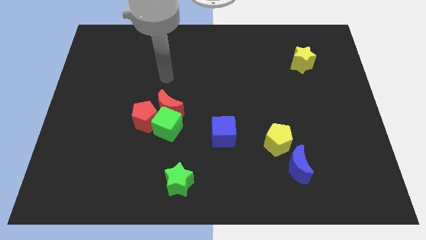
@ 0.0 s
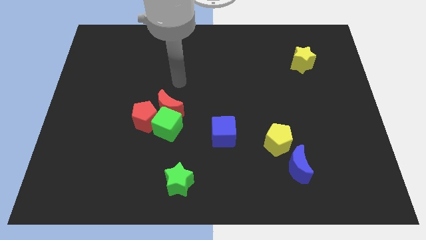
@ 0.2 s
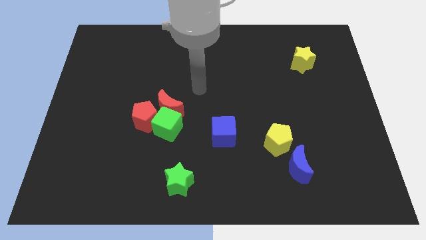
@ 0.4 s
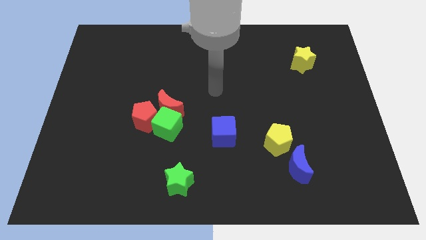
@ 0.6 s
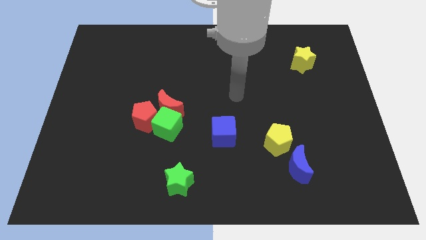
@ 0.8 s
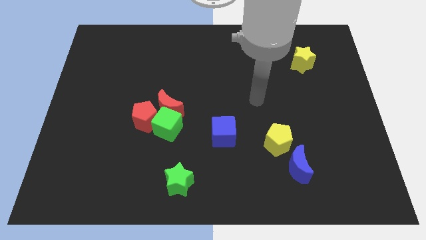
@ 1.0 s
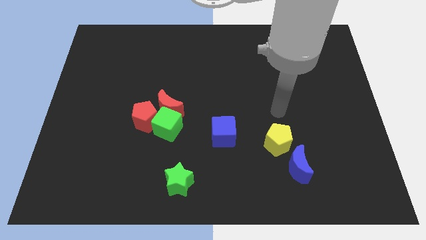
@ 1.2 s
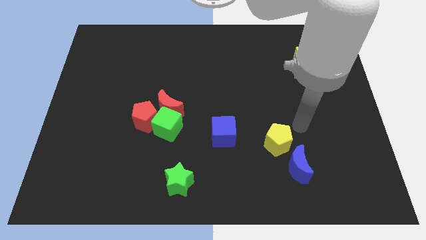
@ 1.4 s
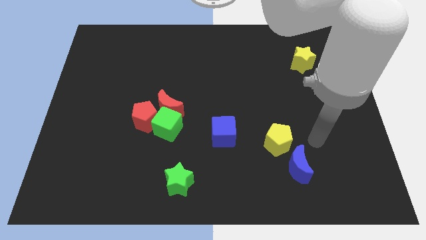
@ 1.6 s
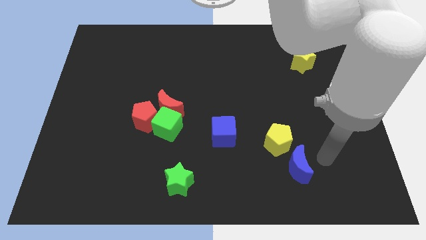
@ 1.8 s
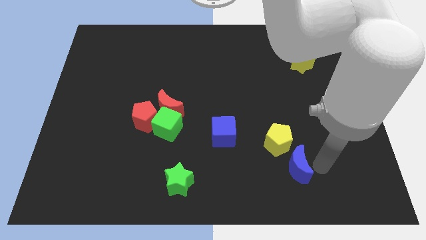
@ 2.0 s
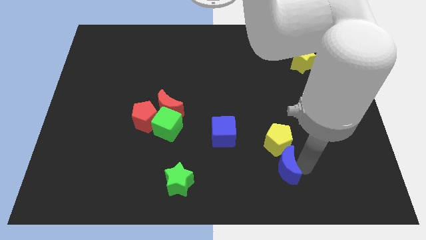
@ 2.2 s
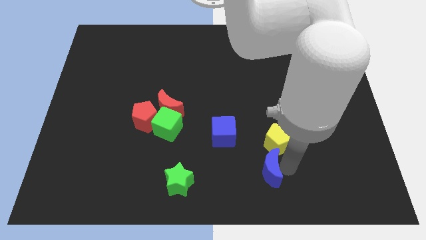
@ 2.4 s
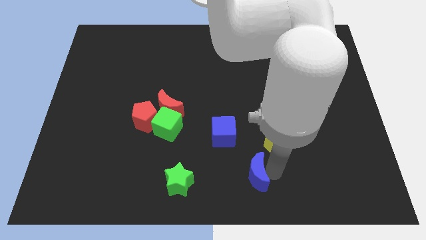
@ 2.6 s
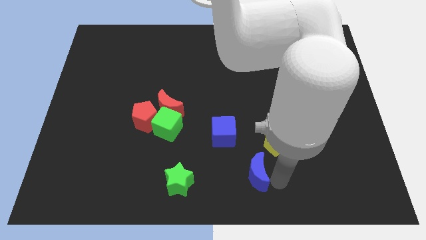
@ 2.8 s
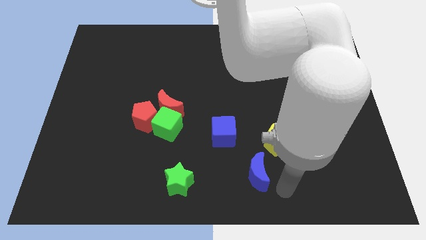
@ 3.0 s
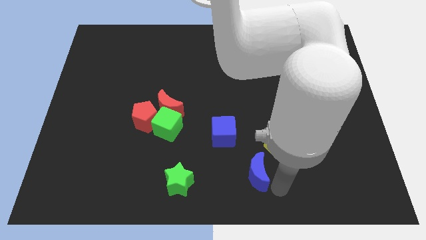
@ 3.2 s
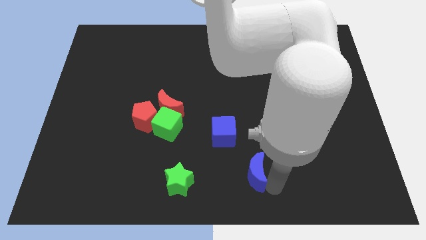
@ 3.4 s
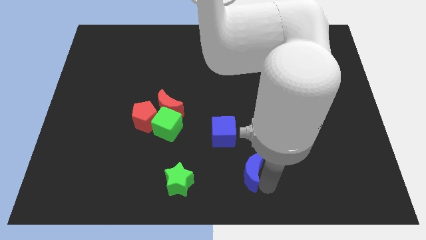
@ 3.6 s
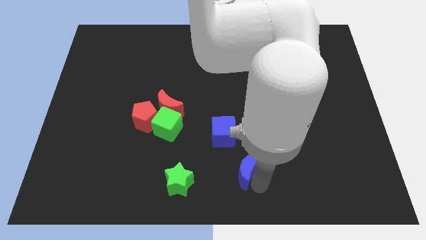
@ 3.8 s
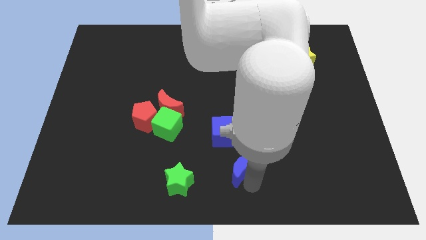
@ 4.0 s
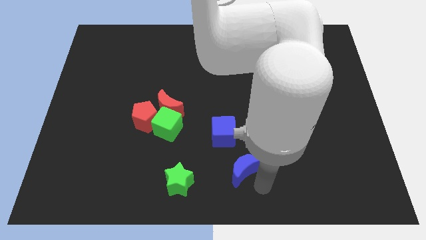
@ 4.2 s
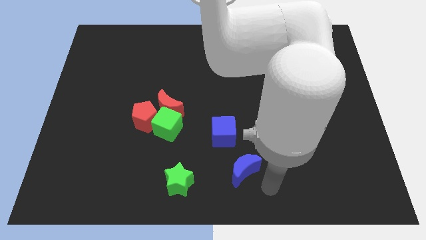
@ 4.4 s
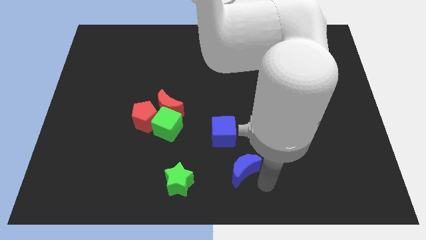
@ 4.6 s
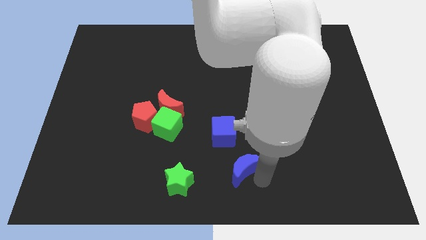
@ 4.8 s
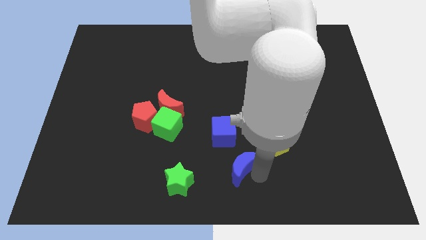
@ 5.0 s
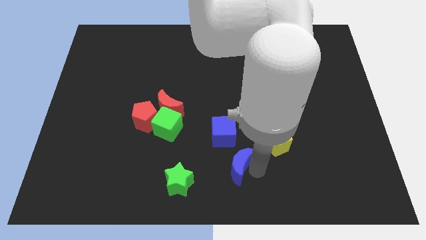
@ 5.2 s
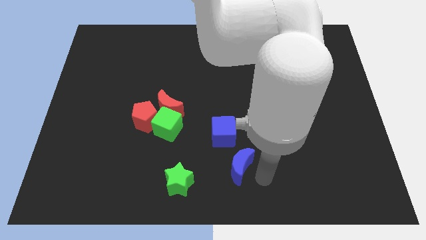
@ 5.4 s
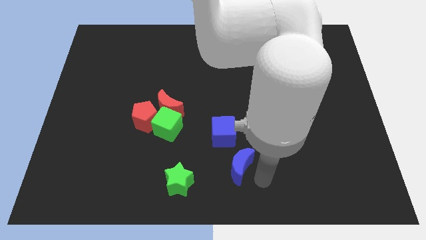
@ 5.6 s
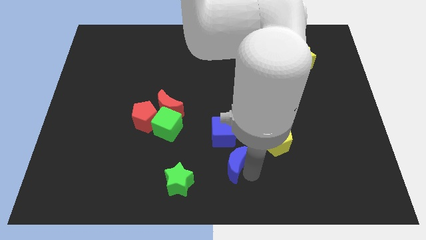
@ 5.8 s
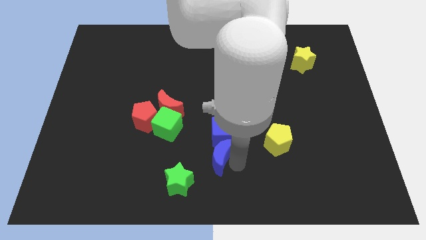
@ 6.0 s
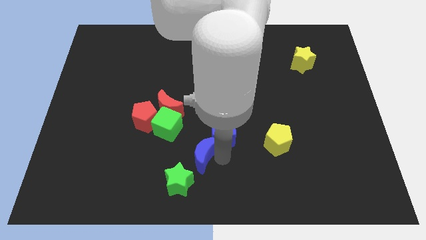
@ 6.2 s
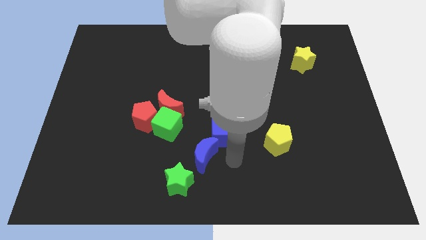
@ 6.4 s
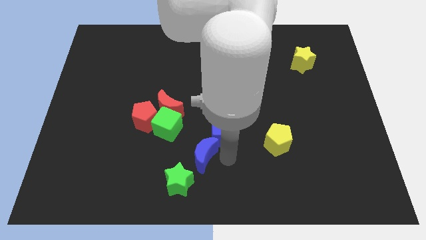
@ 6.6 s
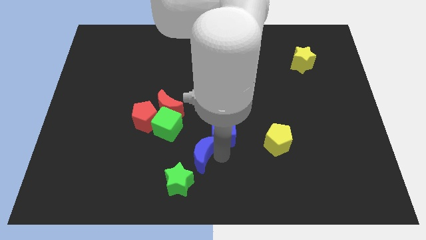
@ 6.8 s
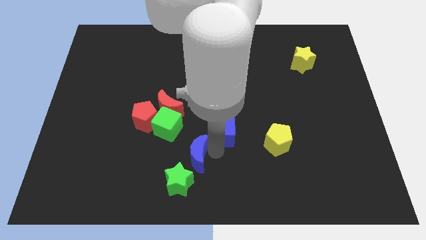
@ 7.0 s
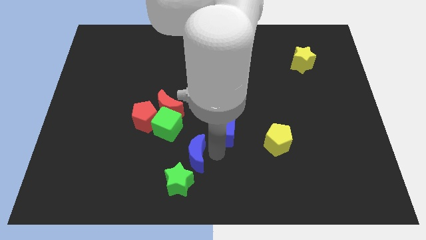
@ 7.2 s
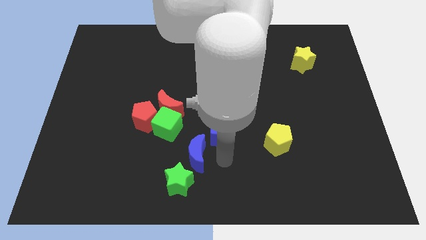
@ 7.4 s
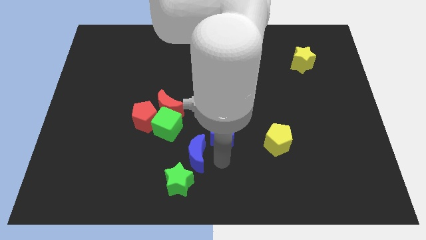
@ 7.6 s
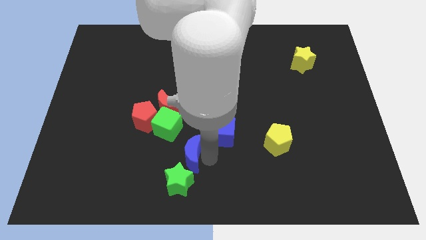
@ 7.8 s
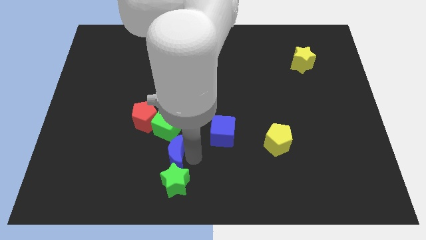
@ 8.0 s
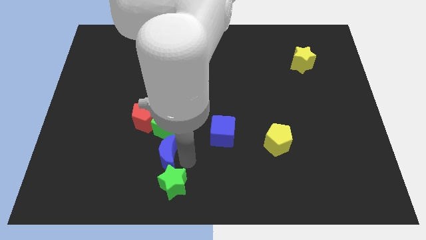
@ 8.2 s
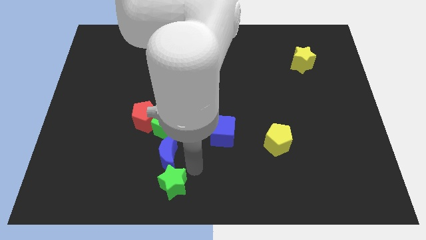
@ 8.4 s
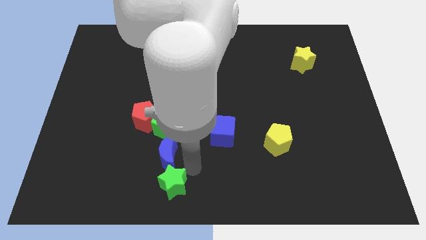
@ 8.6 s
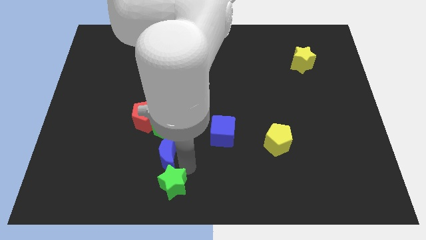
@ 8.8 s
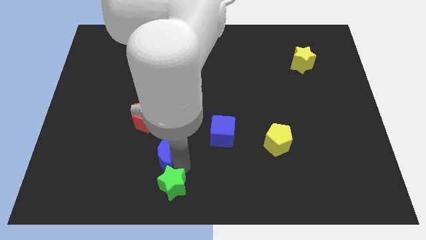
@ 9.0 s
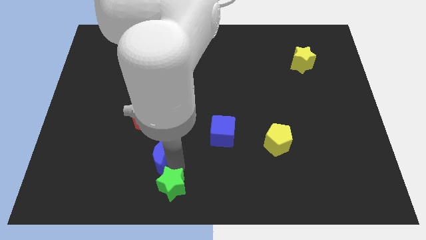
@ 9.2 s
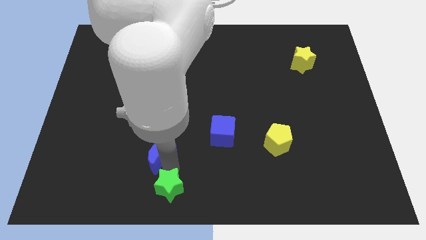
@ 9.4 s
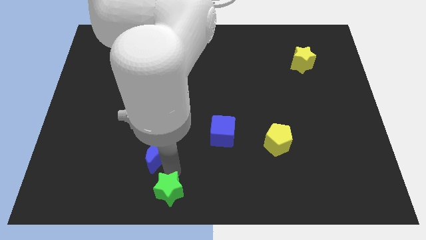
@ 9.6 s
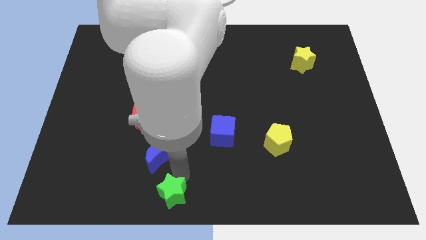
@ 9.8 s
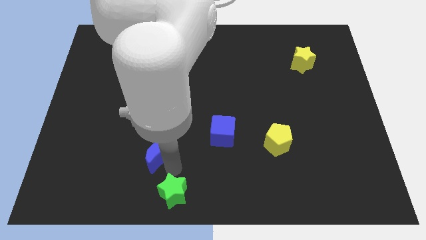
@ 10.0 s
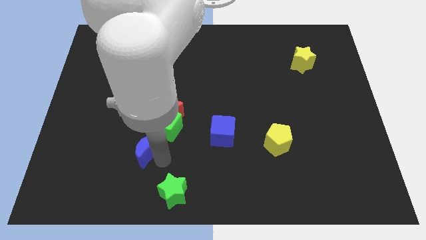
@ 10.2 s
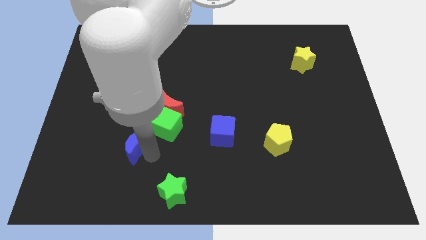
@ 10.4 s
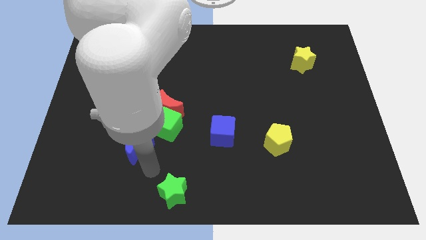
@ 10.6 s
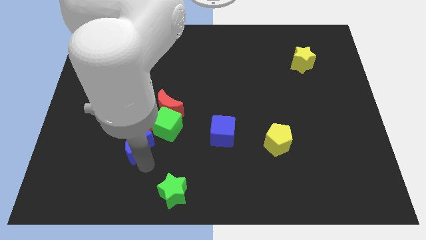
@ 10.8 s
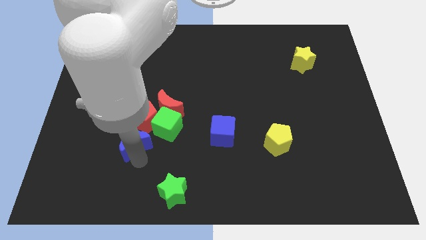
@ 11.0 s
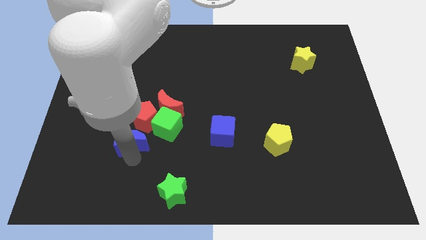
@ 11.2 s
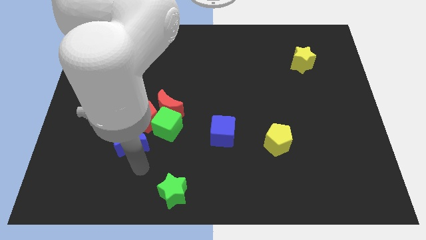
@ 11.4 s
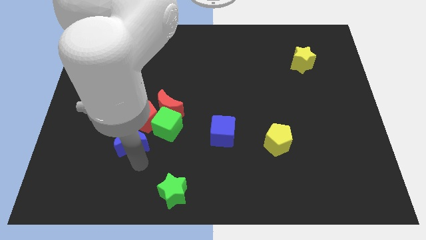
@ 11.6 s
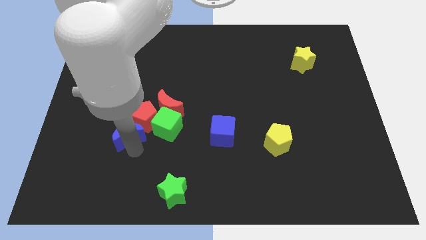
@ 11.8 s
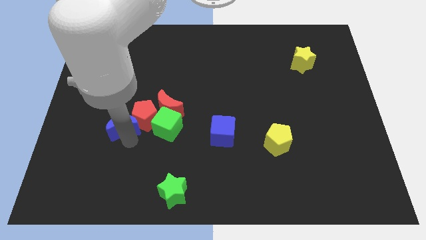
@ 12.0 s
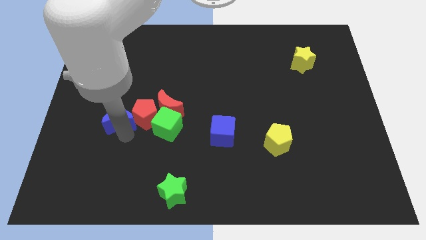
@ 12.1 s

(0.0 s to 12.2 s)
move the blue moon left of the red moon
